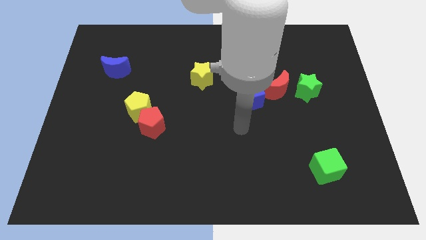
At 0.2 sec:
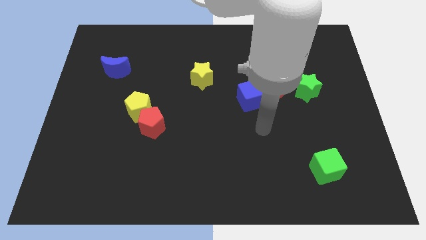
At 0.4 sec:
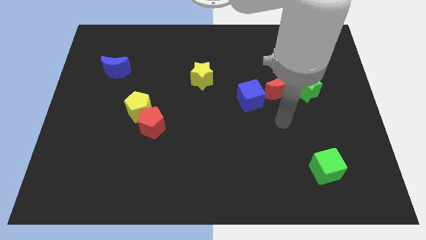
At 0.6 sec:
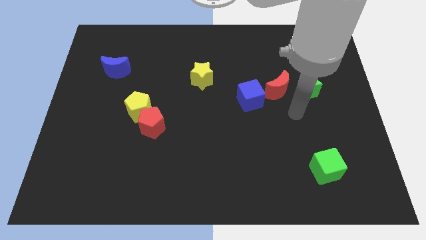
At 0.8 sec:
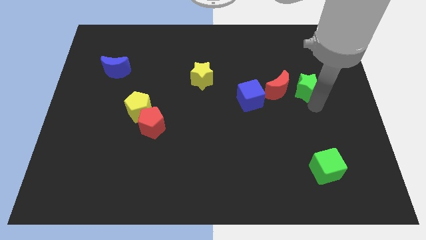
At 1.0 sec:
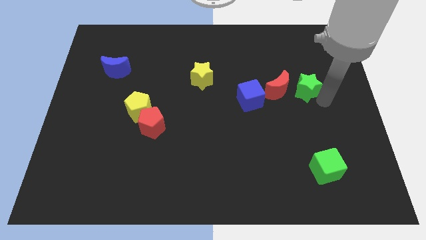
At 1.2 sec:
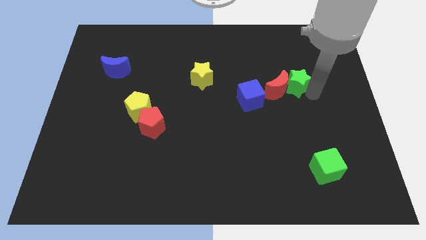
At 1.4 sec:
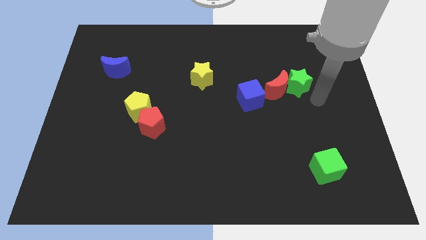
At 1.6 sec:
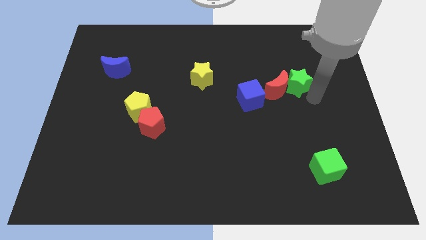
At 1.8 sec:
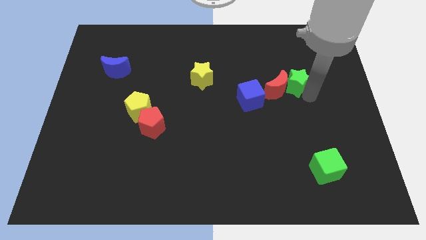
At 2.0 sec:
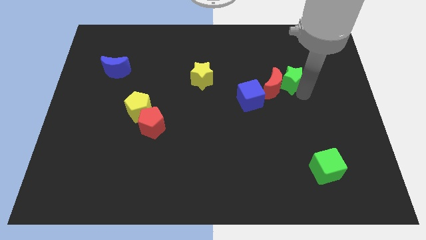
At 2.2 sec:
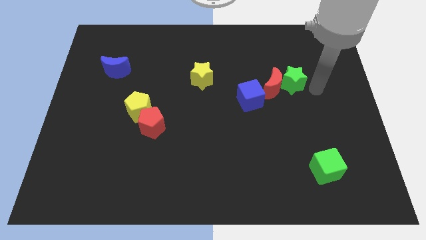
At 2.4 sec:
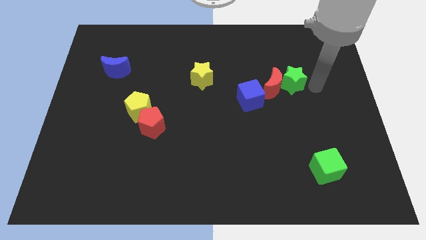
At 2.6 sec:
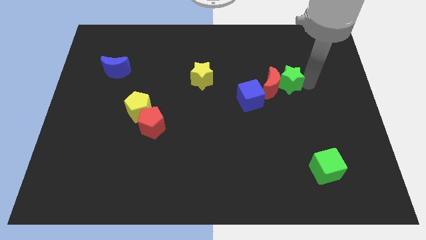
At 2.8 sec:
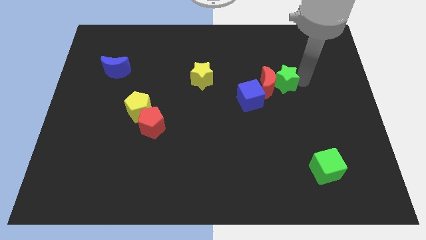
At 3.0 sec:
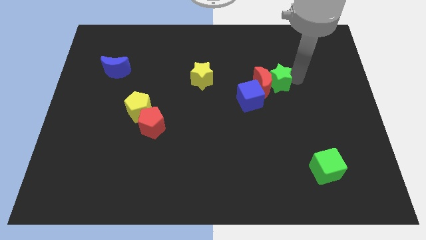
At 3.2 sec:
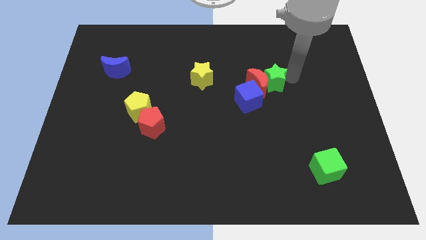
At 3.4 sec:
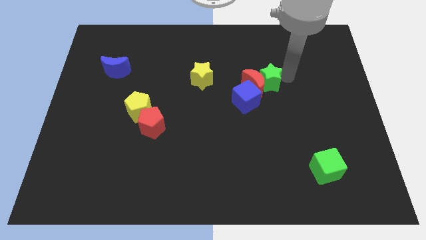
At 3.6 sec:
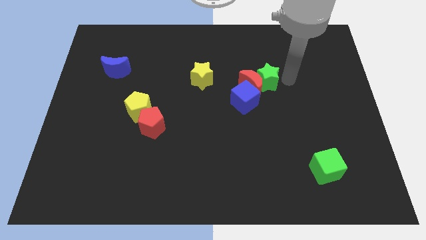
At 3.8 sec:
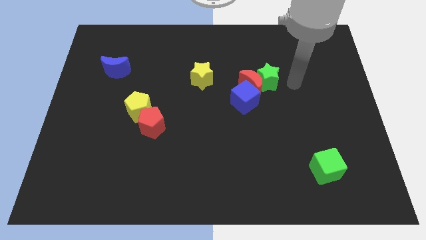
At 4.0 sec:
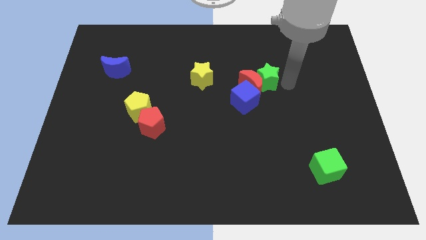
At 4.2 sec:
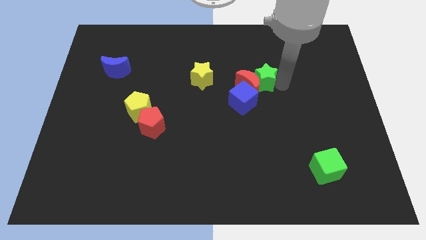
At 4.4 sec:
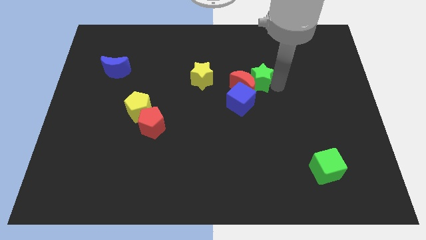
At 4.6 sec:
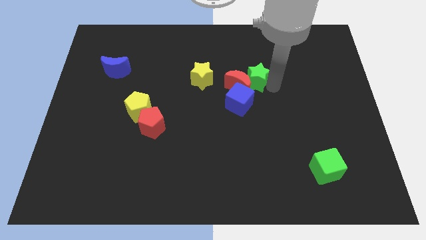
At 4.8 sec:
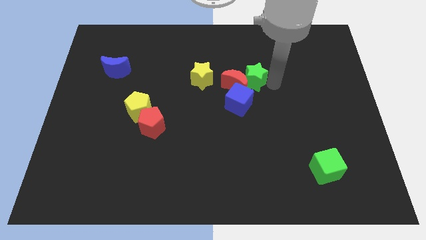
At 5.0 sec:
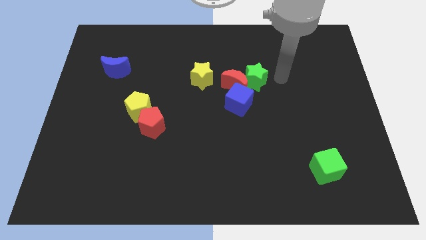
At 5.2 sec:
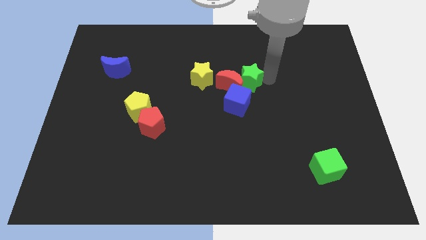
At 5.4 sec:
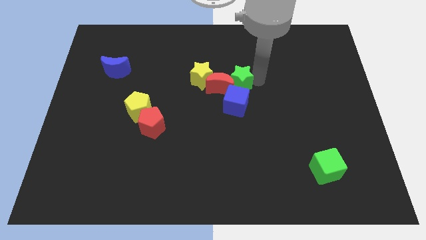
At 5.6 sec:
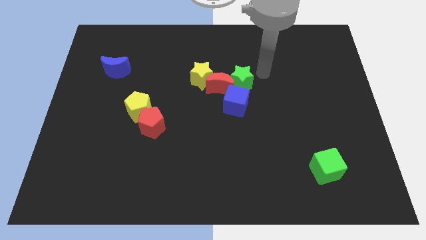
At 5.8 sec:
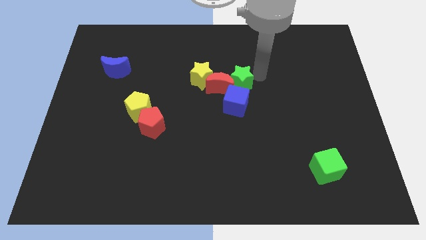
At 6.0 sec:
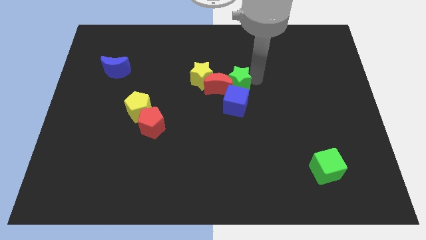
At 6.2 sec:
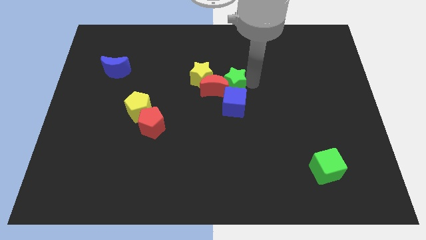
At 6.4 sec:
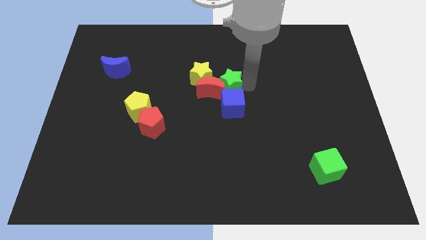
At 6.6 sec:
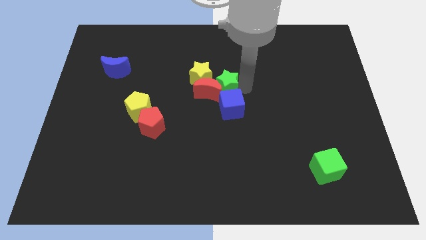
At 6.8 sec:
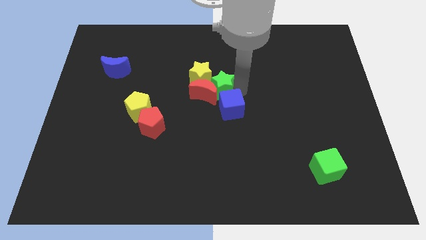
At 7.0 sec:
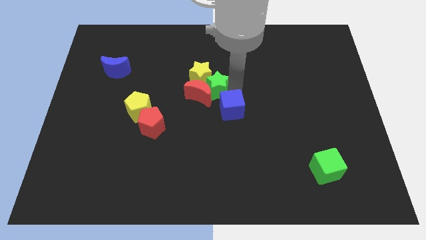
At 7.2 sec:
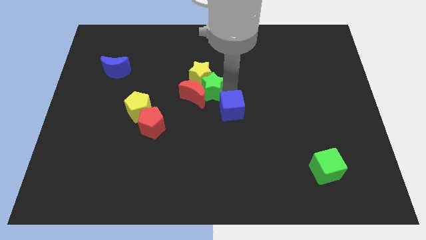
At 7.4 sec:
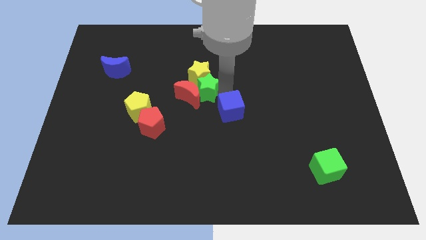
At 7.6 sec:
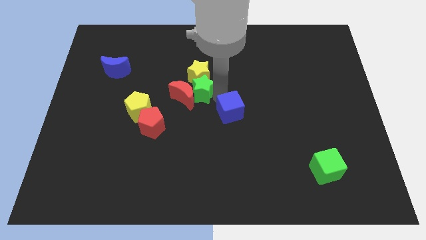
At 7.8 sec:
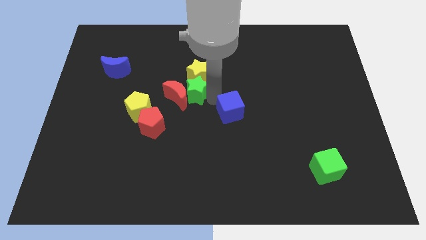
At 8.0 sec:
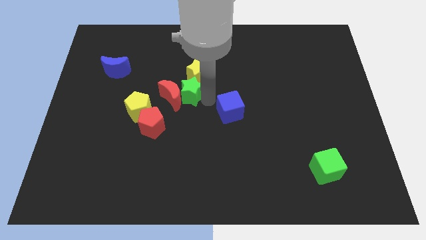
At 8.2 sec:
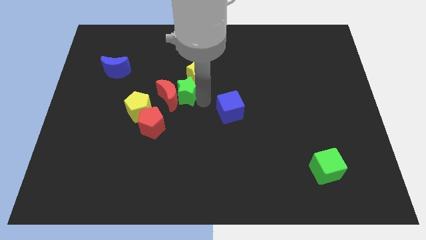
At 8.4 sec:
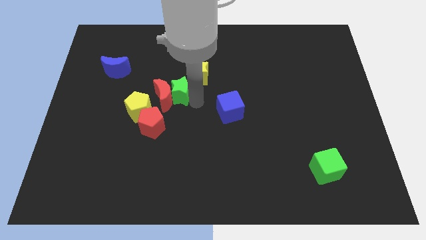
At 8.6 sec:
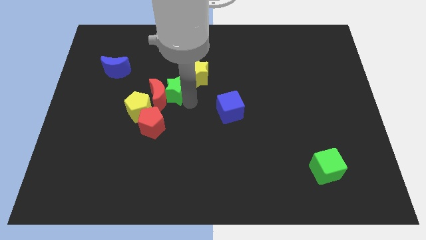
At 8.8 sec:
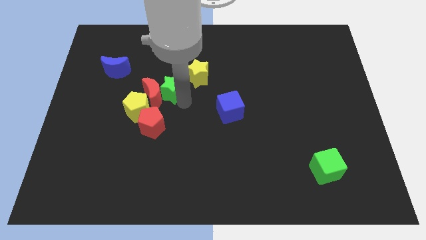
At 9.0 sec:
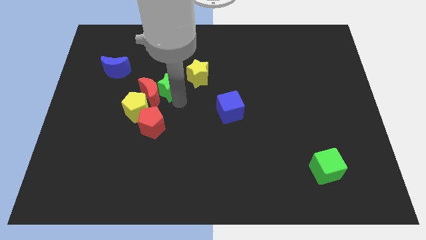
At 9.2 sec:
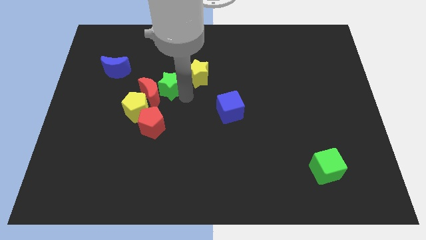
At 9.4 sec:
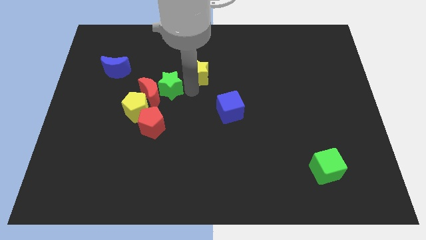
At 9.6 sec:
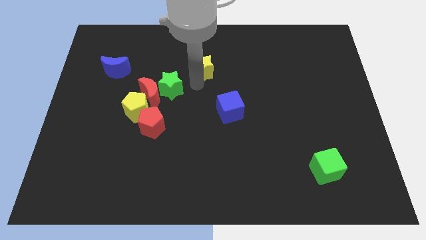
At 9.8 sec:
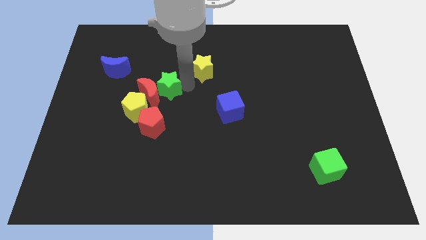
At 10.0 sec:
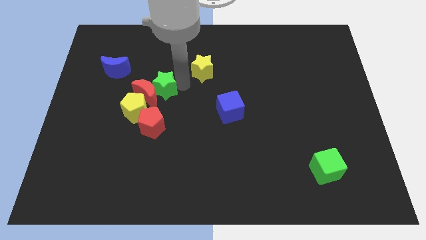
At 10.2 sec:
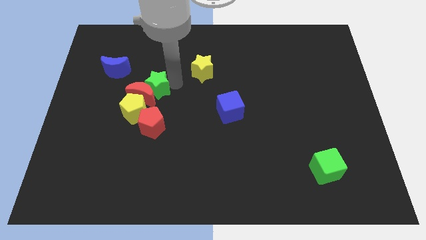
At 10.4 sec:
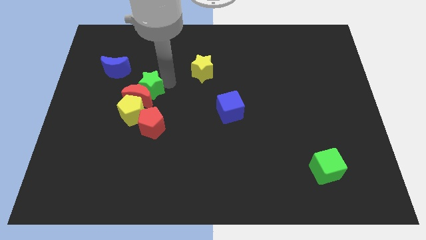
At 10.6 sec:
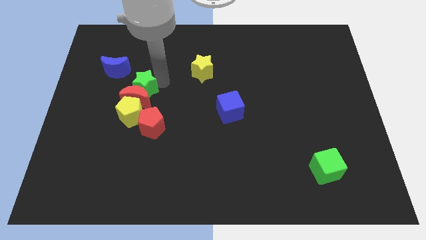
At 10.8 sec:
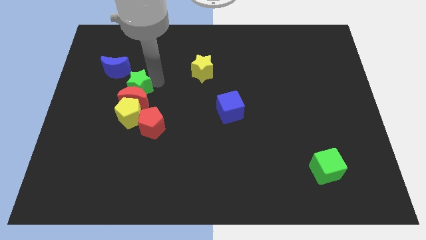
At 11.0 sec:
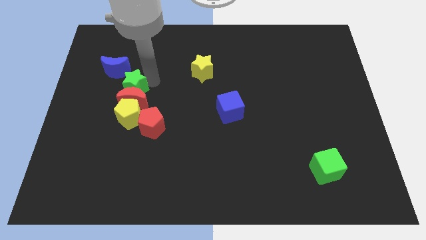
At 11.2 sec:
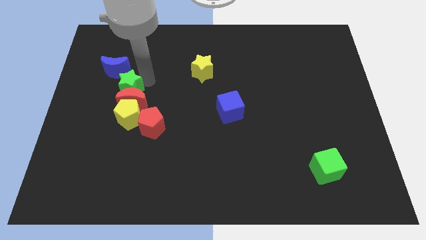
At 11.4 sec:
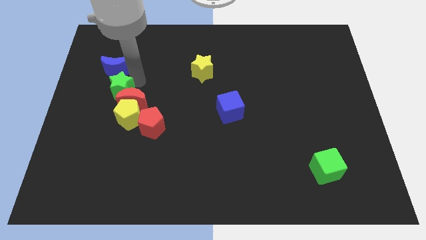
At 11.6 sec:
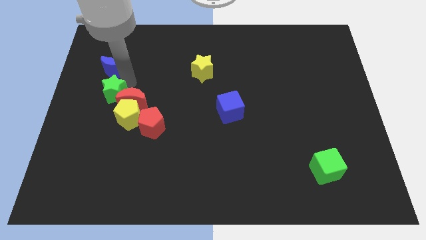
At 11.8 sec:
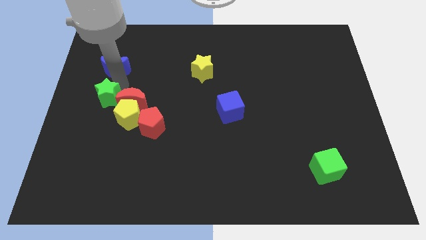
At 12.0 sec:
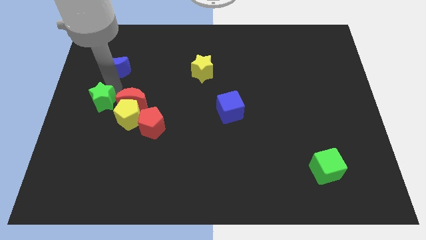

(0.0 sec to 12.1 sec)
push the green star left of the yellow pentagon

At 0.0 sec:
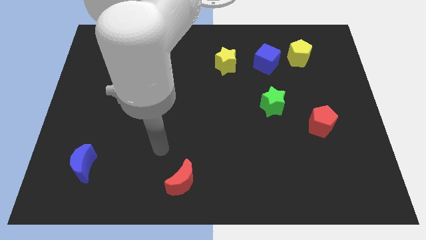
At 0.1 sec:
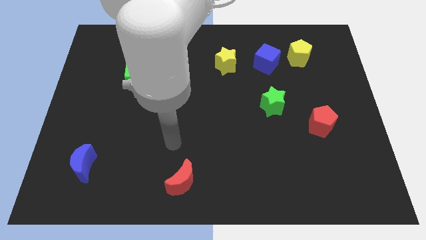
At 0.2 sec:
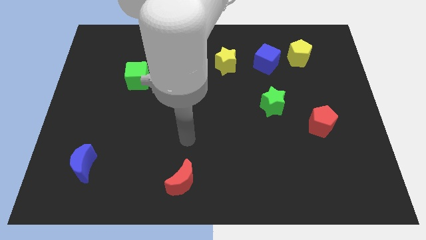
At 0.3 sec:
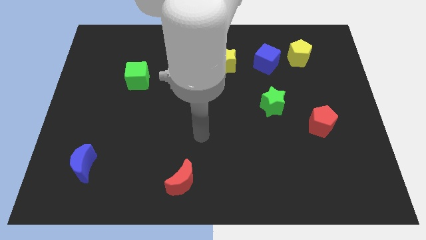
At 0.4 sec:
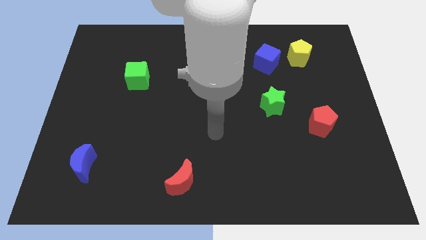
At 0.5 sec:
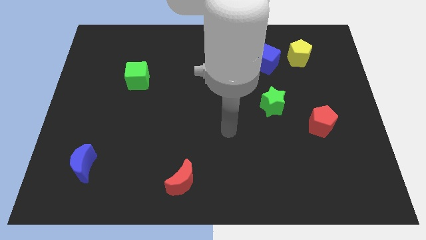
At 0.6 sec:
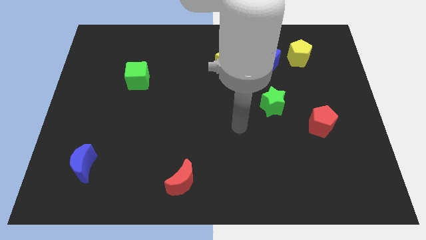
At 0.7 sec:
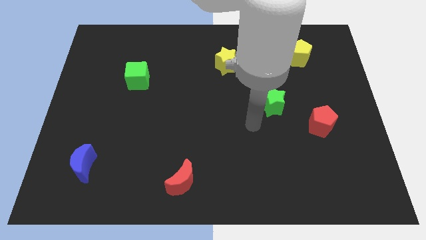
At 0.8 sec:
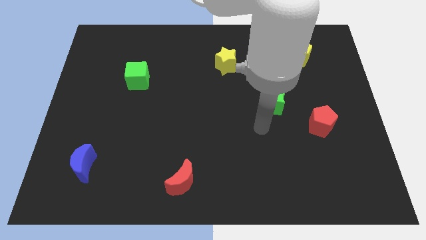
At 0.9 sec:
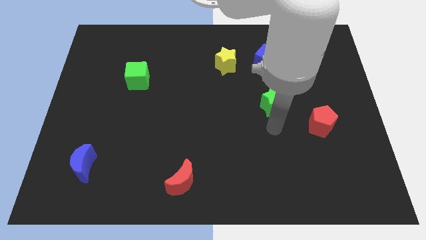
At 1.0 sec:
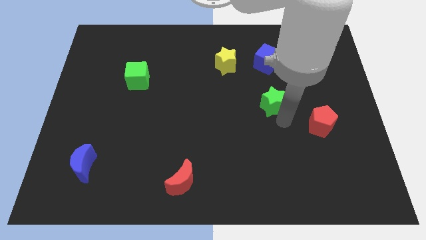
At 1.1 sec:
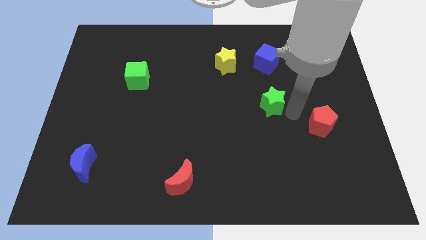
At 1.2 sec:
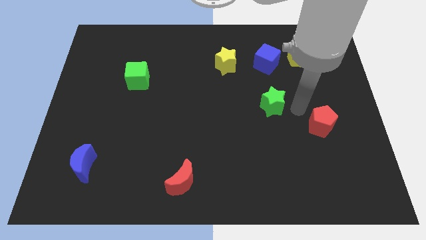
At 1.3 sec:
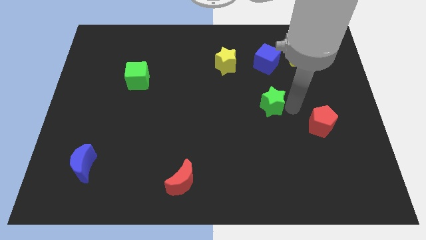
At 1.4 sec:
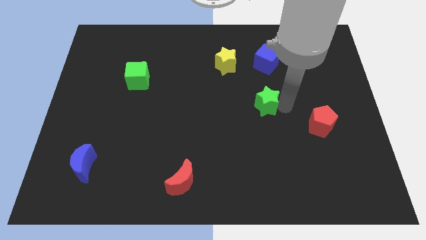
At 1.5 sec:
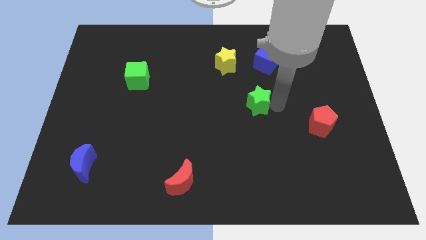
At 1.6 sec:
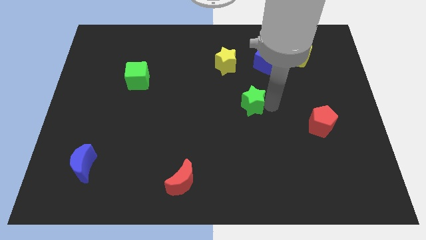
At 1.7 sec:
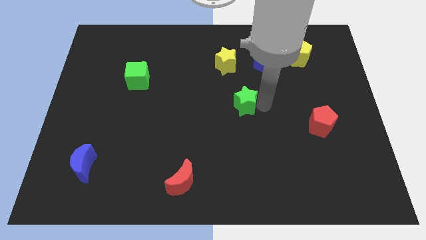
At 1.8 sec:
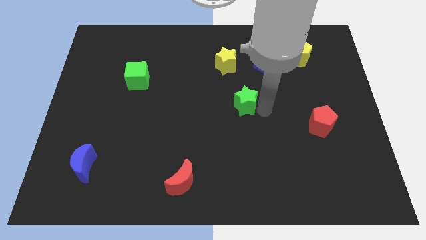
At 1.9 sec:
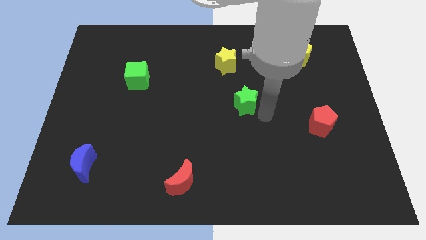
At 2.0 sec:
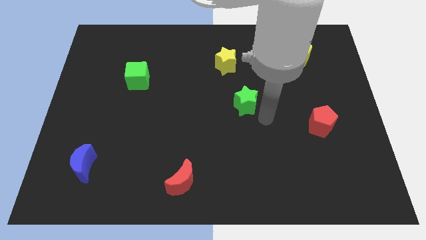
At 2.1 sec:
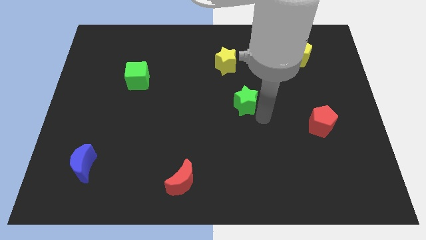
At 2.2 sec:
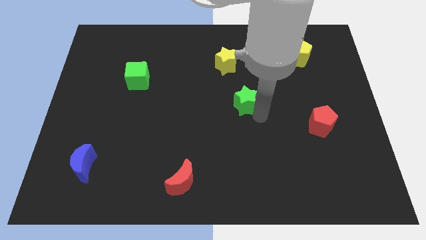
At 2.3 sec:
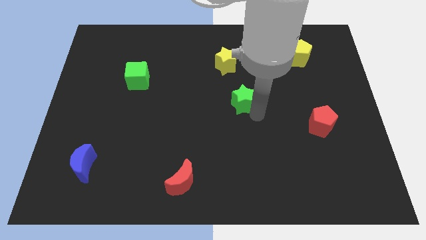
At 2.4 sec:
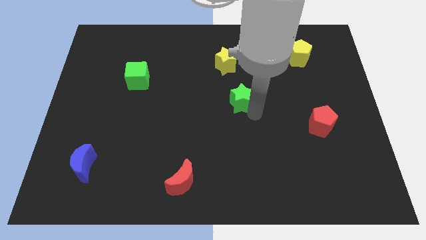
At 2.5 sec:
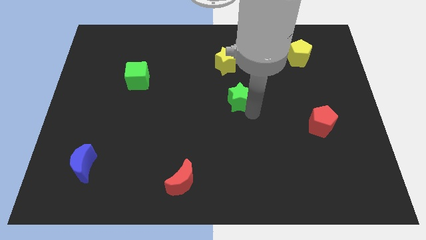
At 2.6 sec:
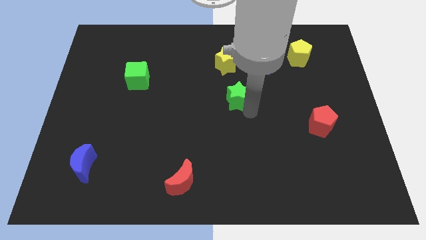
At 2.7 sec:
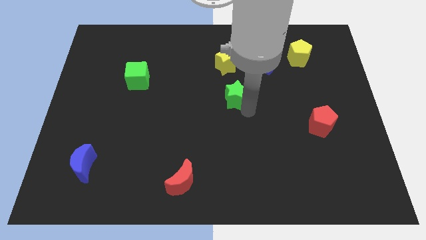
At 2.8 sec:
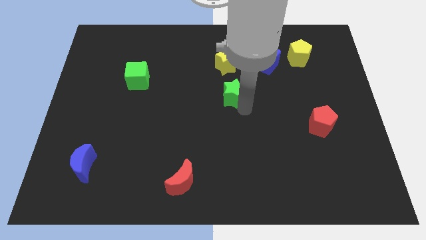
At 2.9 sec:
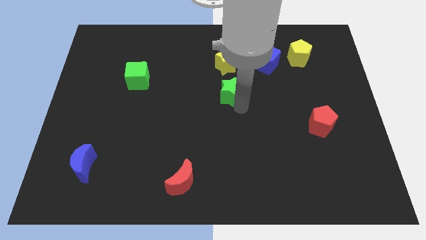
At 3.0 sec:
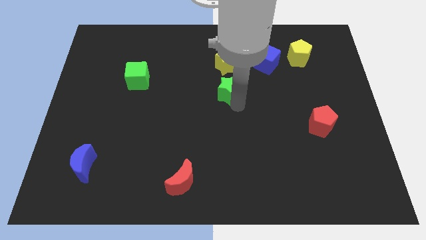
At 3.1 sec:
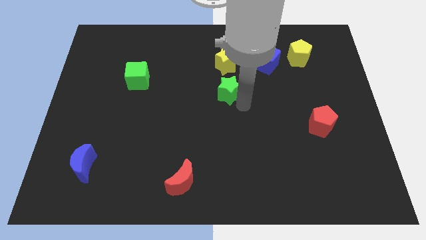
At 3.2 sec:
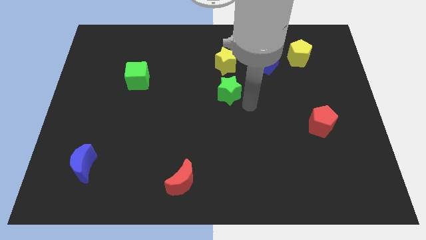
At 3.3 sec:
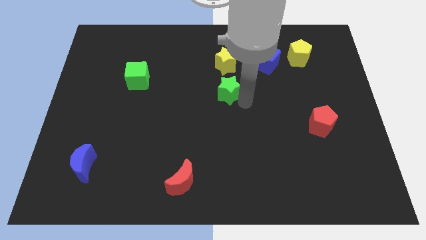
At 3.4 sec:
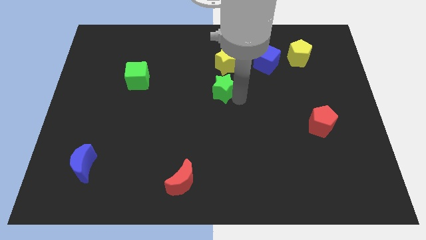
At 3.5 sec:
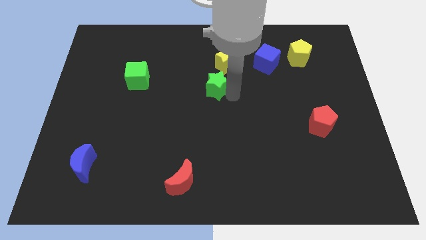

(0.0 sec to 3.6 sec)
slide the green star to the bottom left side of the yellow star
